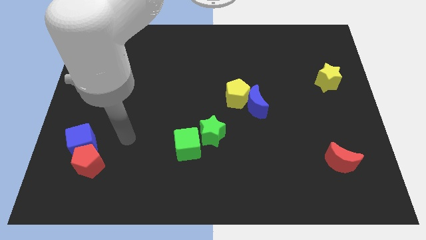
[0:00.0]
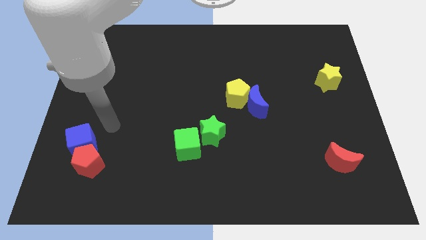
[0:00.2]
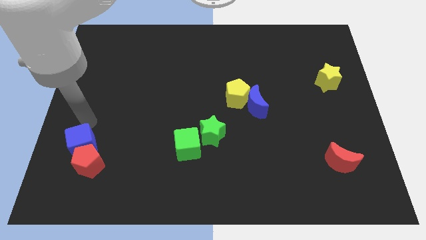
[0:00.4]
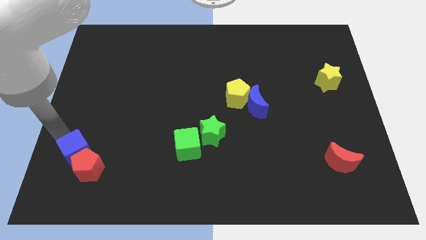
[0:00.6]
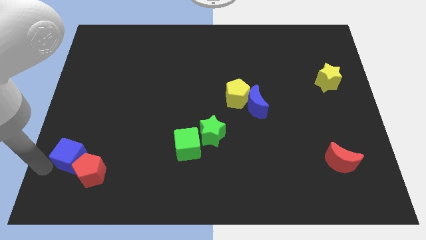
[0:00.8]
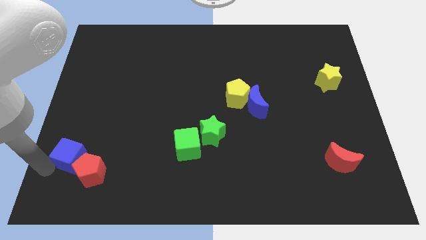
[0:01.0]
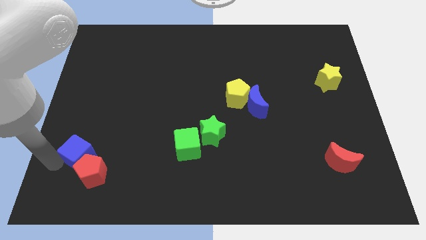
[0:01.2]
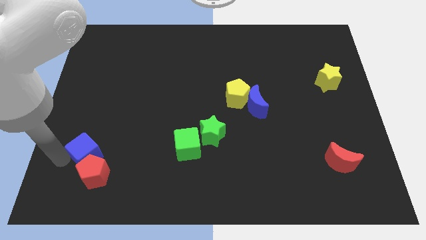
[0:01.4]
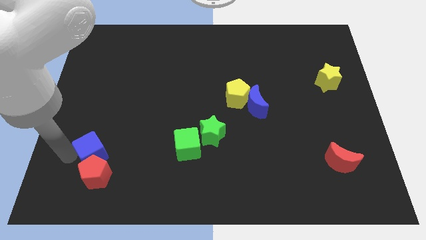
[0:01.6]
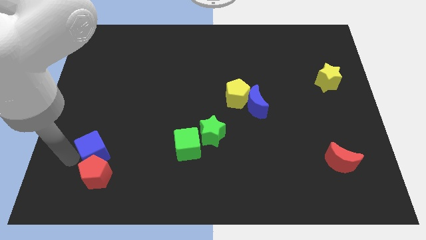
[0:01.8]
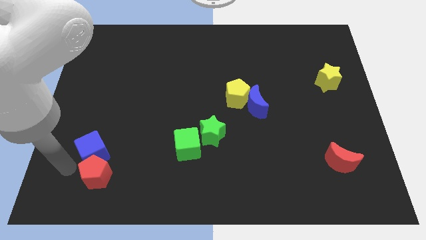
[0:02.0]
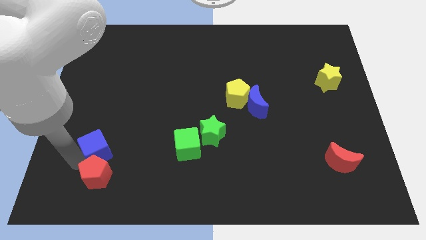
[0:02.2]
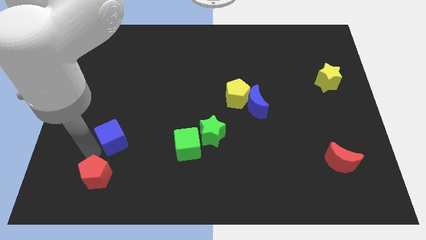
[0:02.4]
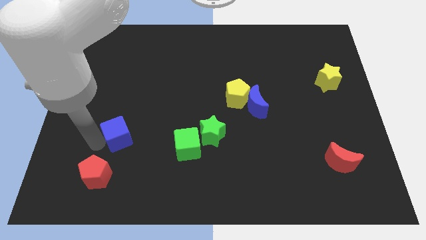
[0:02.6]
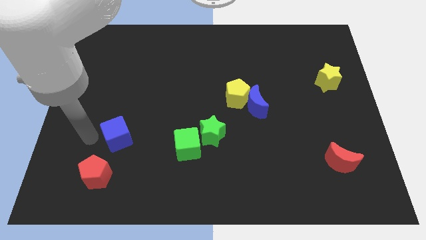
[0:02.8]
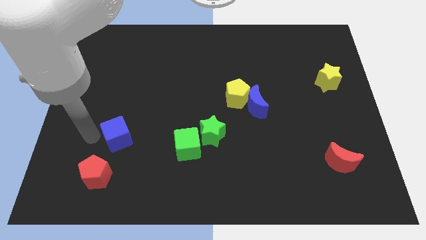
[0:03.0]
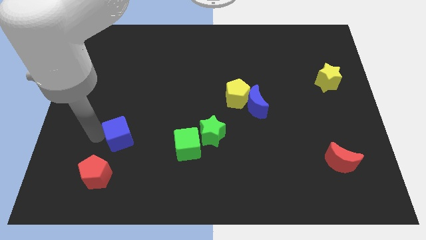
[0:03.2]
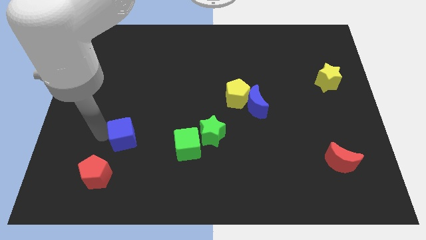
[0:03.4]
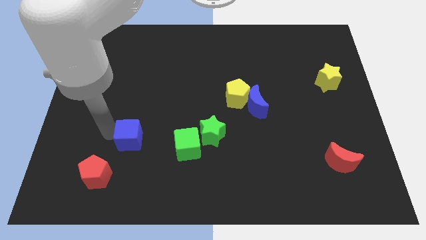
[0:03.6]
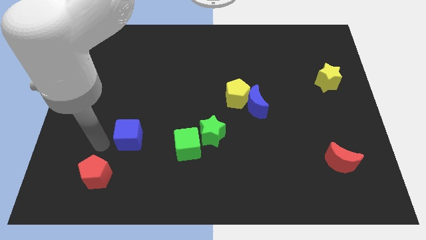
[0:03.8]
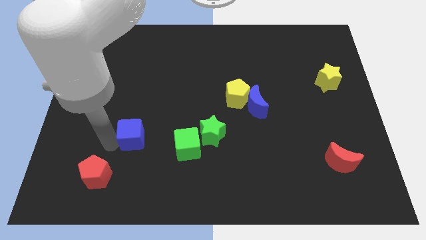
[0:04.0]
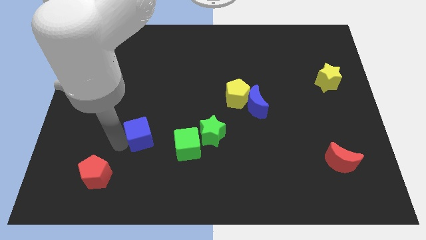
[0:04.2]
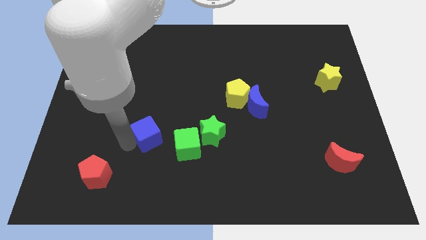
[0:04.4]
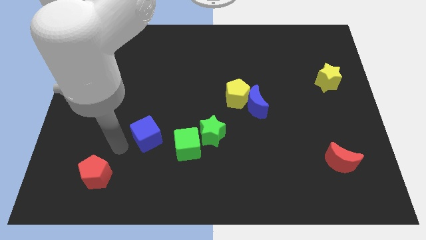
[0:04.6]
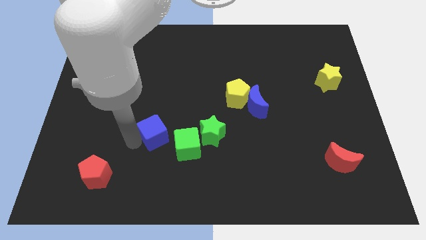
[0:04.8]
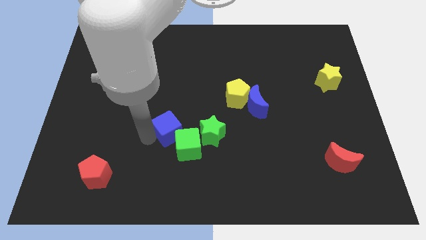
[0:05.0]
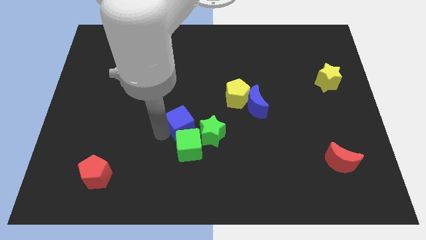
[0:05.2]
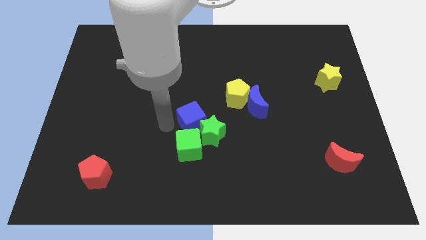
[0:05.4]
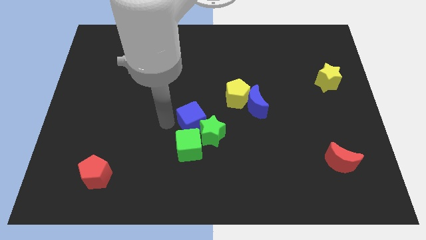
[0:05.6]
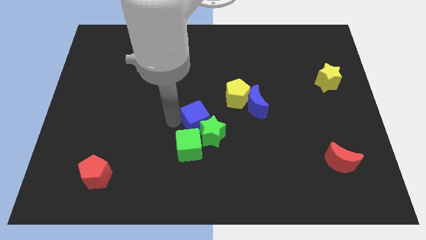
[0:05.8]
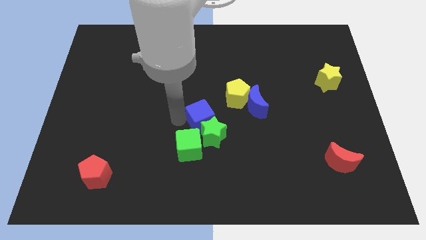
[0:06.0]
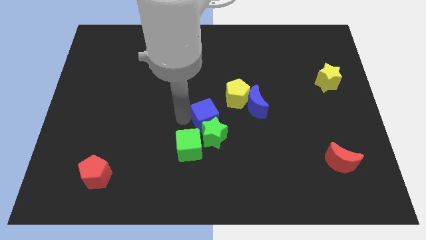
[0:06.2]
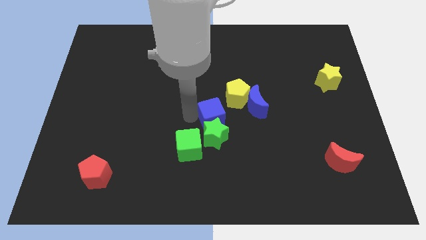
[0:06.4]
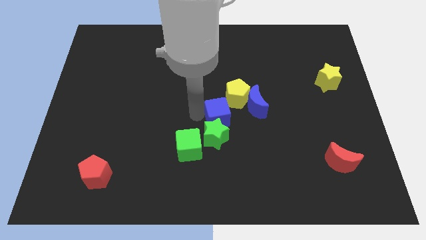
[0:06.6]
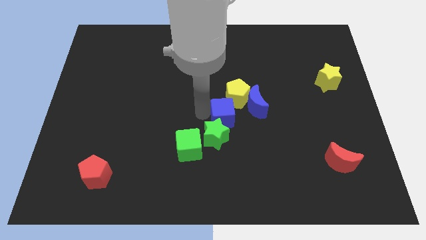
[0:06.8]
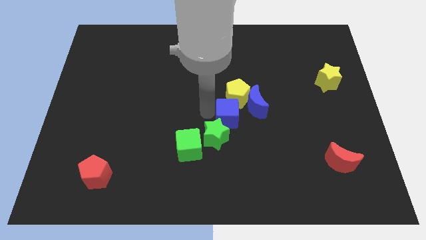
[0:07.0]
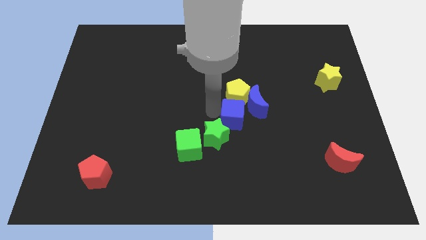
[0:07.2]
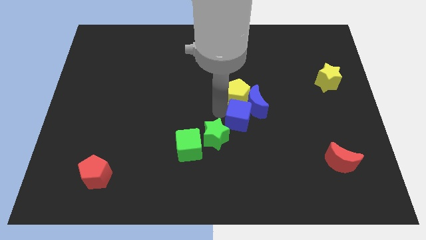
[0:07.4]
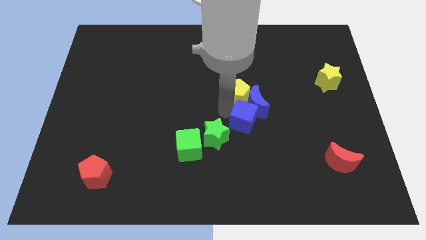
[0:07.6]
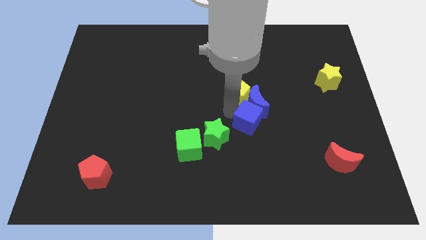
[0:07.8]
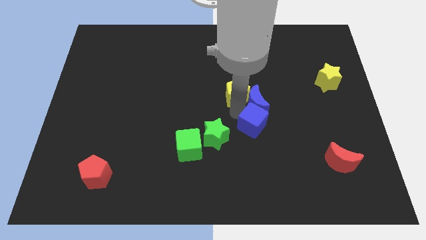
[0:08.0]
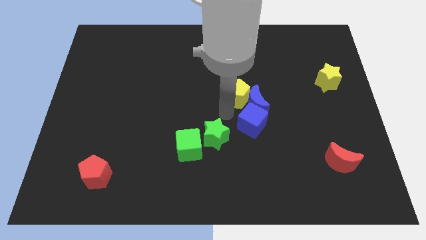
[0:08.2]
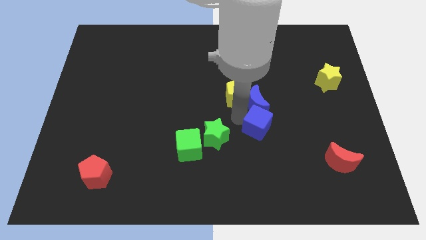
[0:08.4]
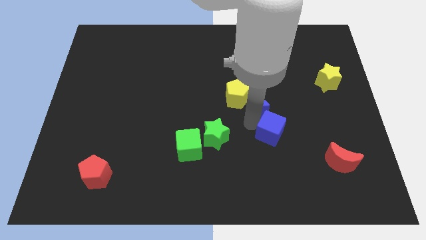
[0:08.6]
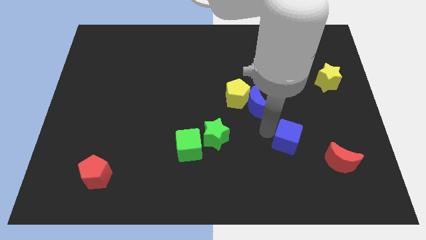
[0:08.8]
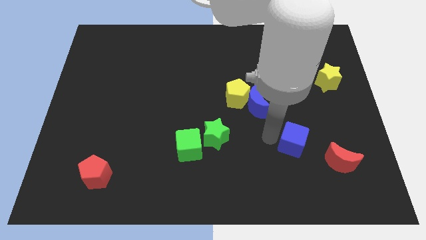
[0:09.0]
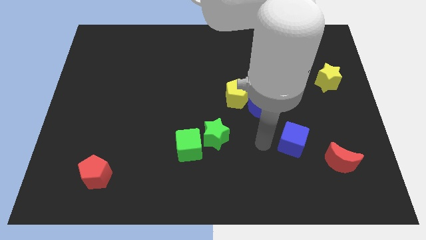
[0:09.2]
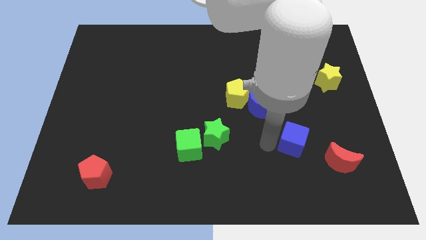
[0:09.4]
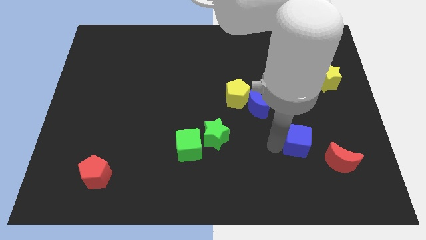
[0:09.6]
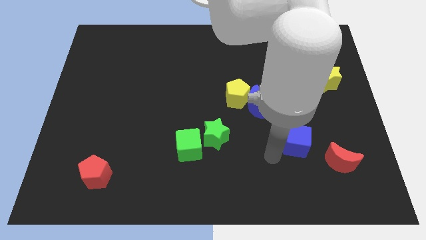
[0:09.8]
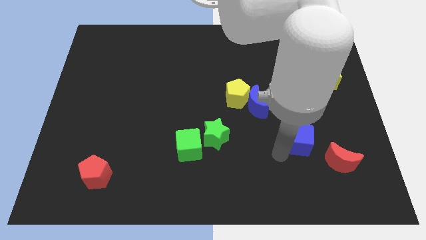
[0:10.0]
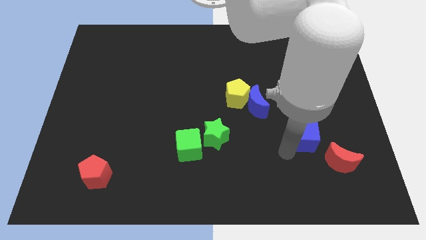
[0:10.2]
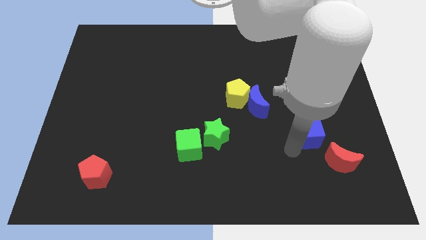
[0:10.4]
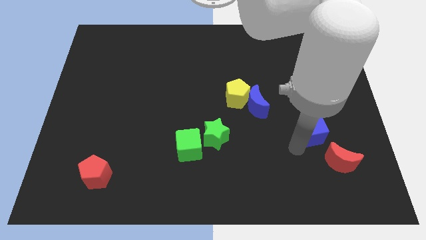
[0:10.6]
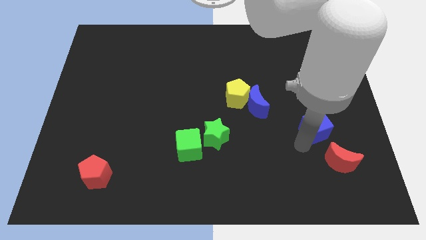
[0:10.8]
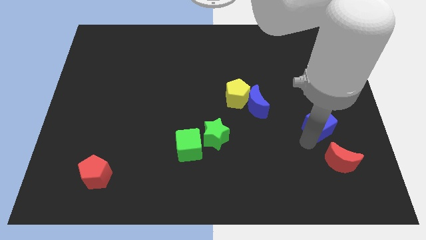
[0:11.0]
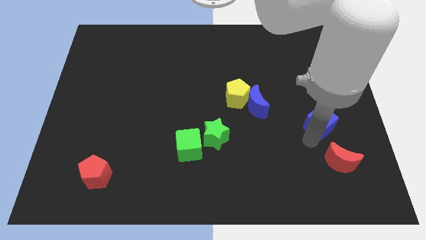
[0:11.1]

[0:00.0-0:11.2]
push the blue cube to the bottom of the yellow star

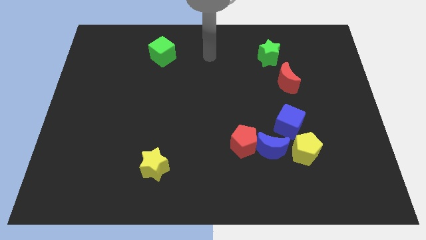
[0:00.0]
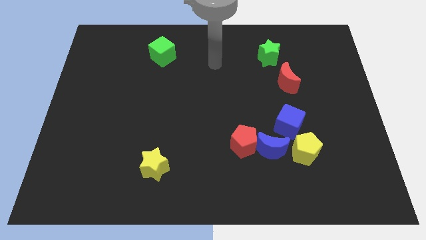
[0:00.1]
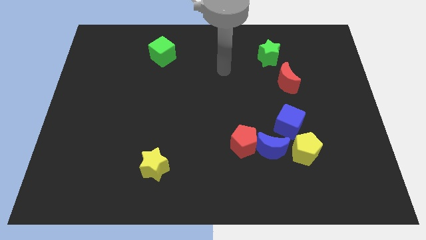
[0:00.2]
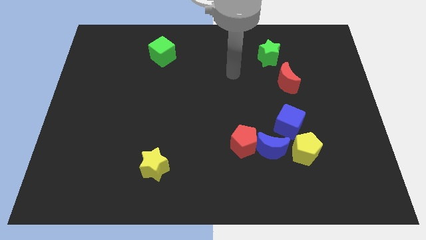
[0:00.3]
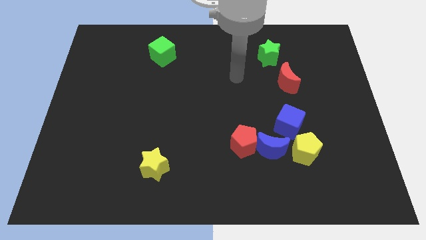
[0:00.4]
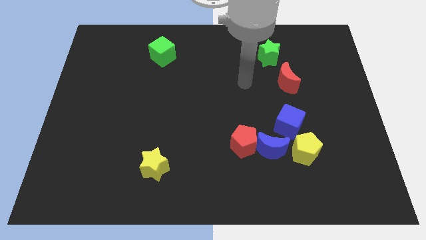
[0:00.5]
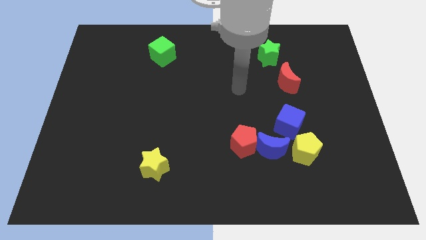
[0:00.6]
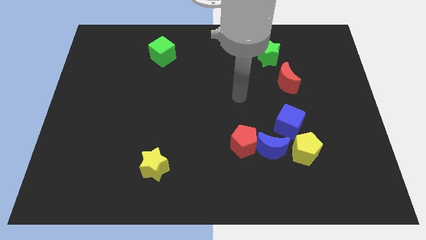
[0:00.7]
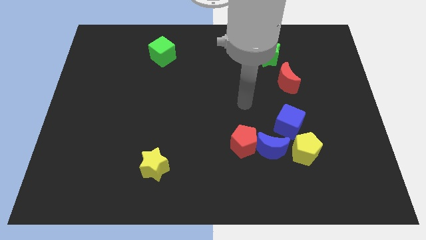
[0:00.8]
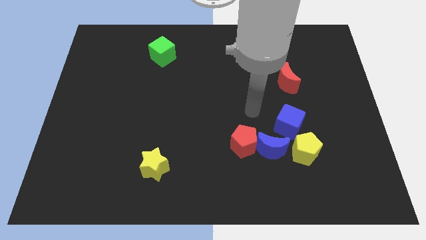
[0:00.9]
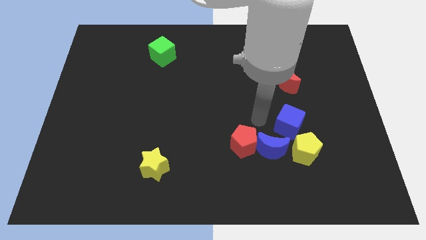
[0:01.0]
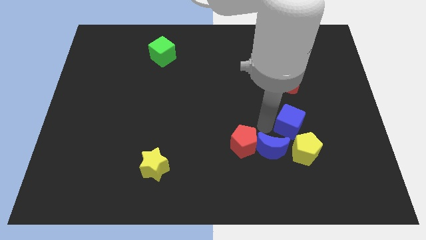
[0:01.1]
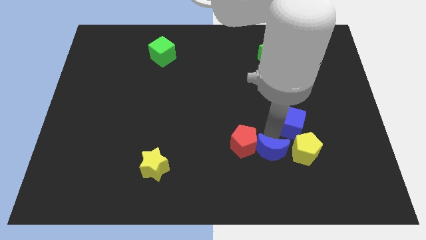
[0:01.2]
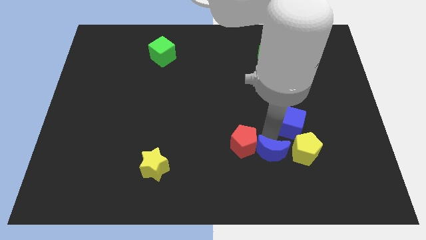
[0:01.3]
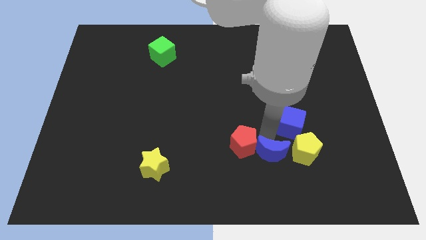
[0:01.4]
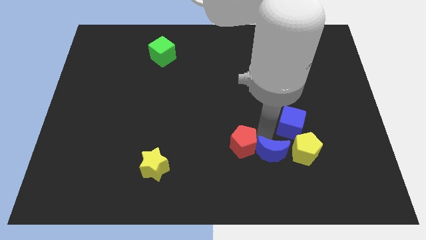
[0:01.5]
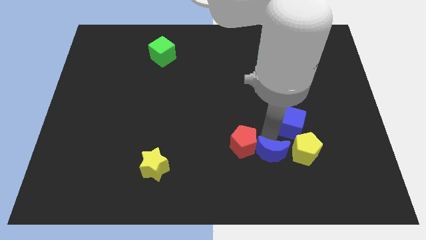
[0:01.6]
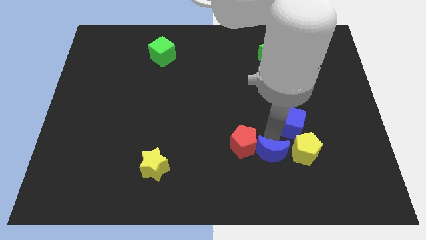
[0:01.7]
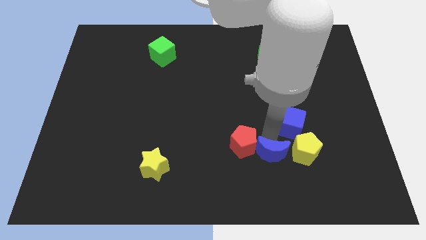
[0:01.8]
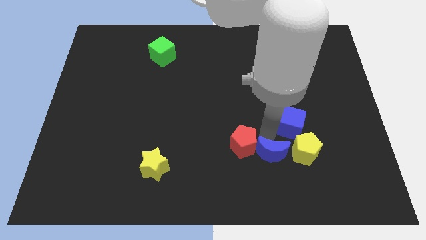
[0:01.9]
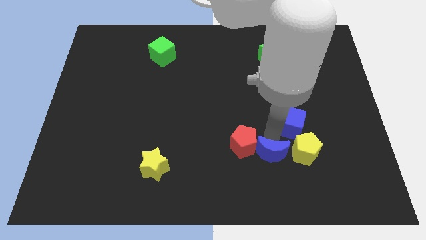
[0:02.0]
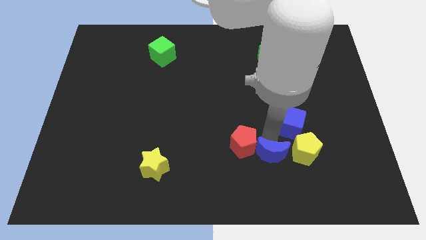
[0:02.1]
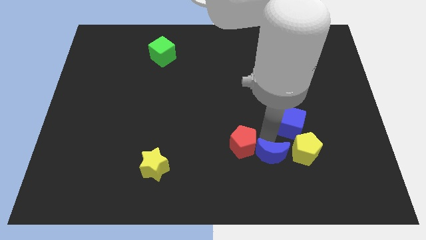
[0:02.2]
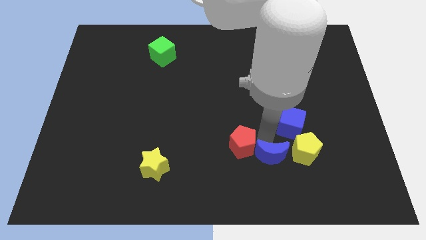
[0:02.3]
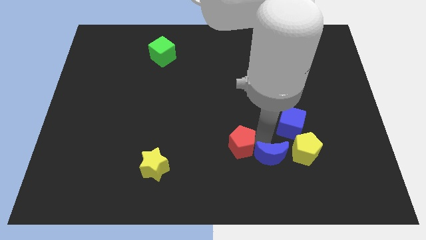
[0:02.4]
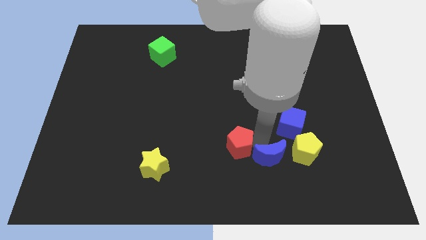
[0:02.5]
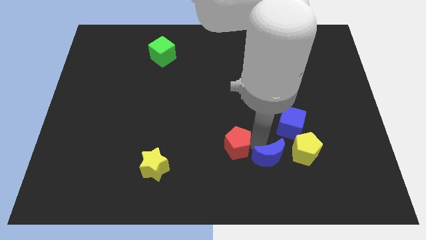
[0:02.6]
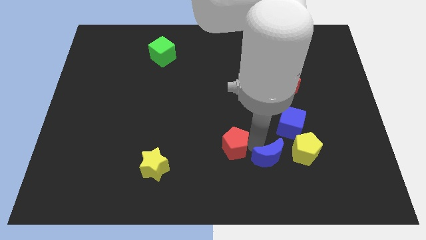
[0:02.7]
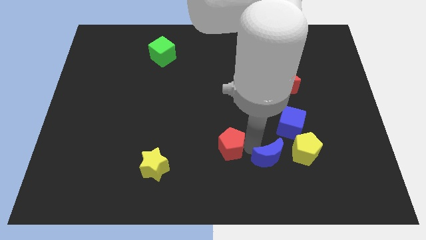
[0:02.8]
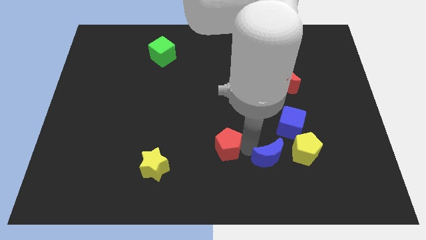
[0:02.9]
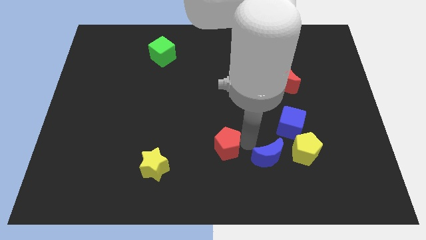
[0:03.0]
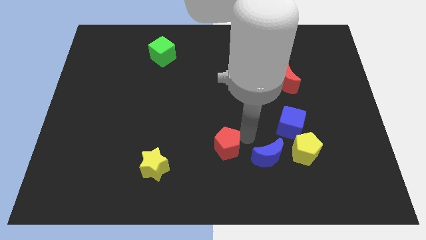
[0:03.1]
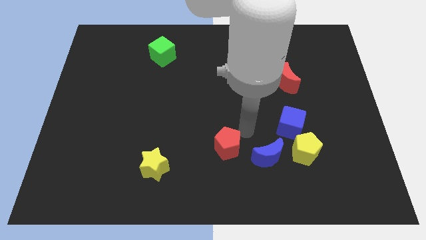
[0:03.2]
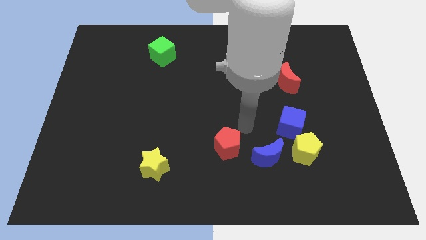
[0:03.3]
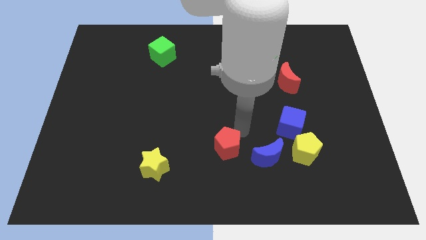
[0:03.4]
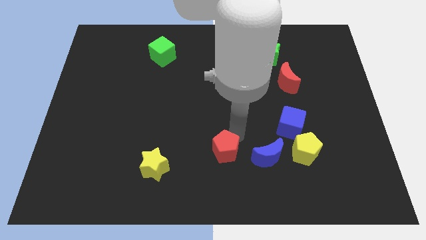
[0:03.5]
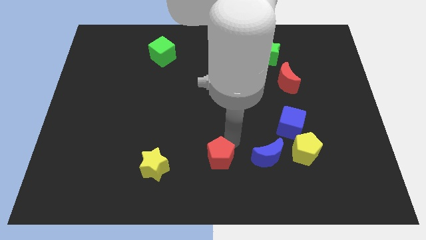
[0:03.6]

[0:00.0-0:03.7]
slide the red pentagon to the right side of the yellow star
